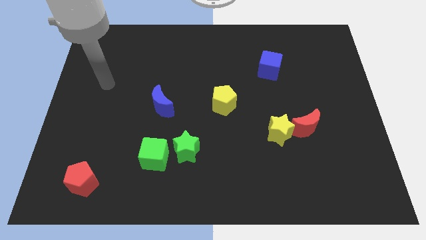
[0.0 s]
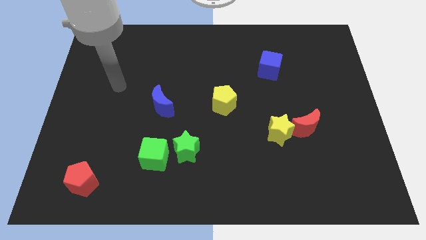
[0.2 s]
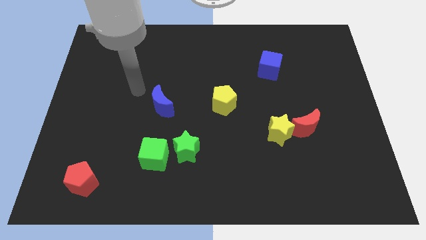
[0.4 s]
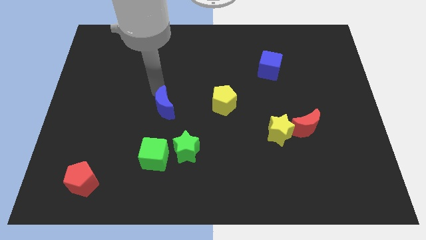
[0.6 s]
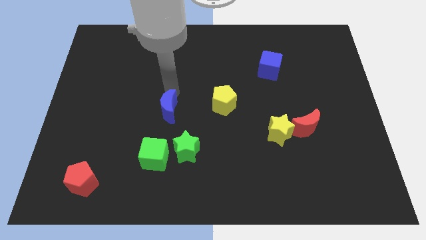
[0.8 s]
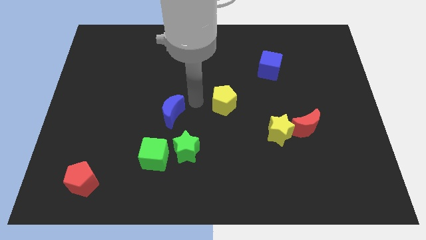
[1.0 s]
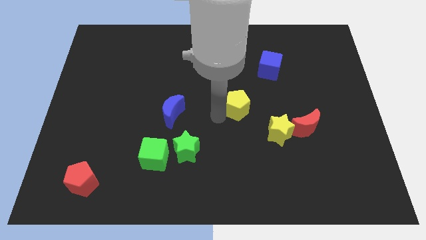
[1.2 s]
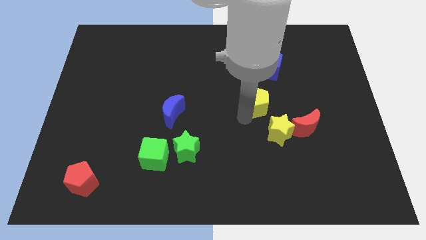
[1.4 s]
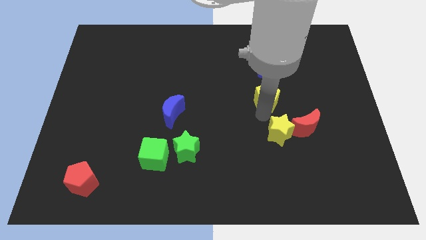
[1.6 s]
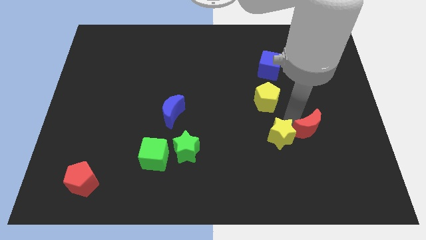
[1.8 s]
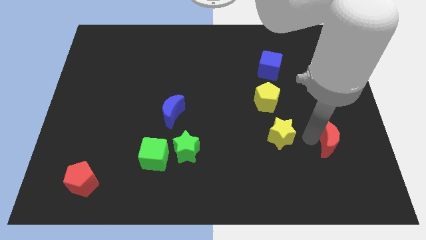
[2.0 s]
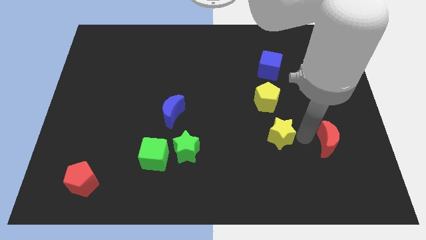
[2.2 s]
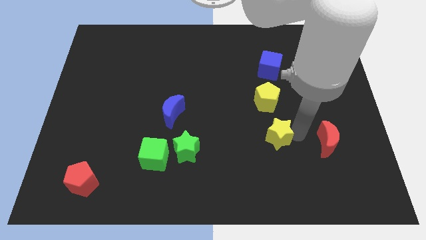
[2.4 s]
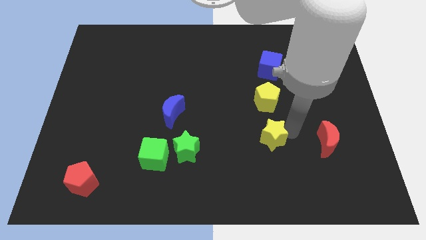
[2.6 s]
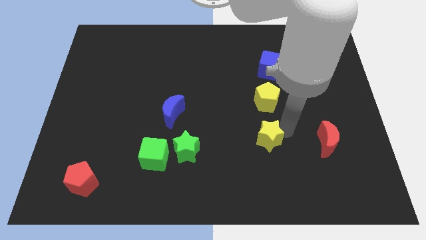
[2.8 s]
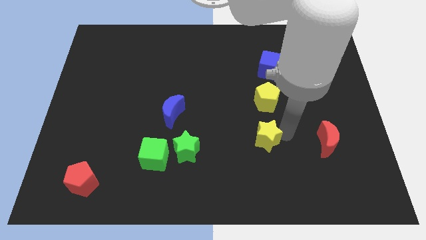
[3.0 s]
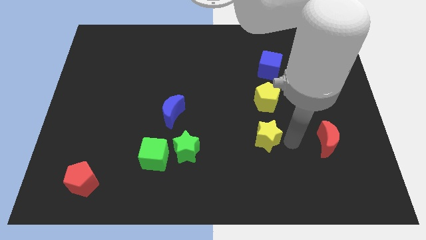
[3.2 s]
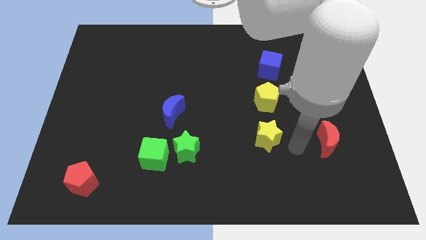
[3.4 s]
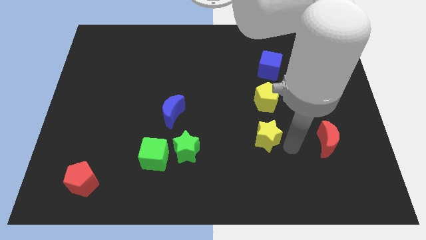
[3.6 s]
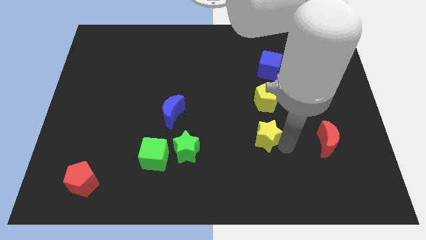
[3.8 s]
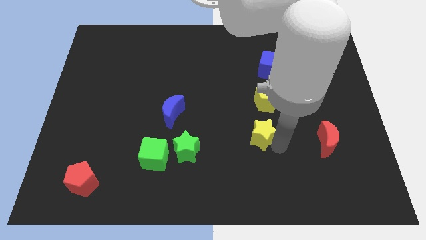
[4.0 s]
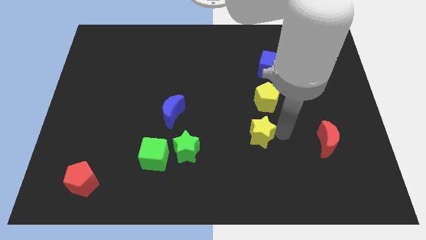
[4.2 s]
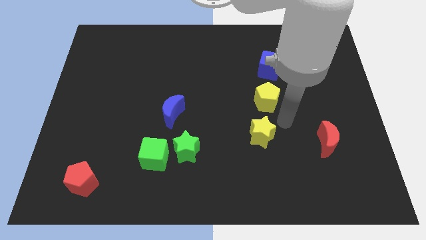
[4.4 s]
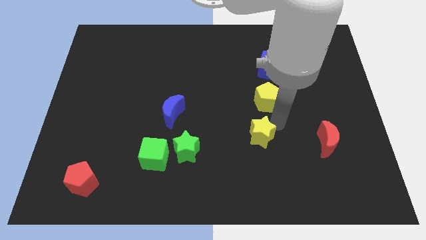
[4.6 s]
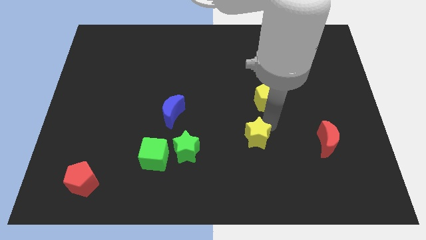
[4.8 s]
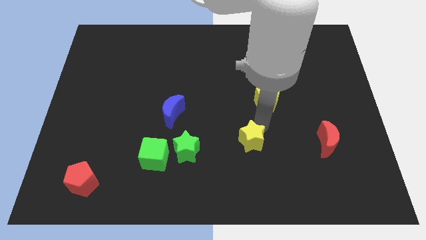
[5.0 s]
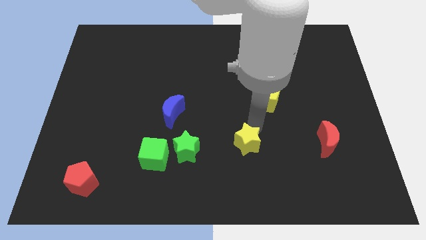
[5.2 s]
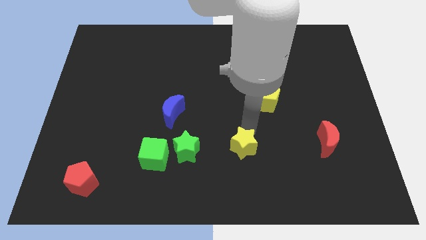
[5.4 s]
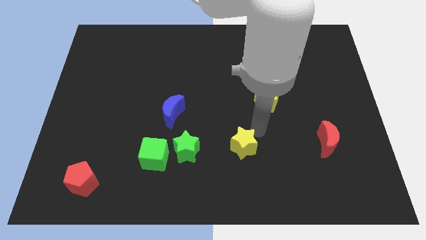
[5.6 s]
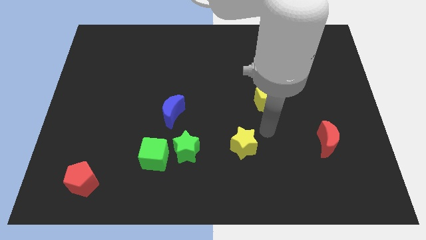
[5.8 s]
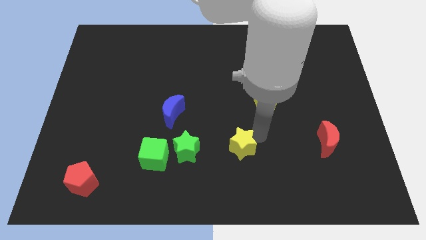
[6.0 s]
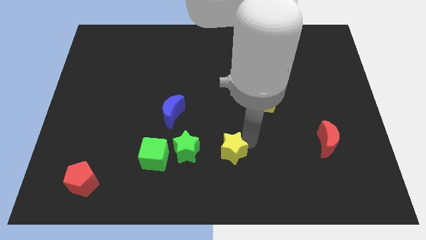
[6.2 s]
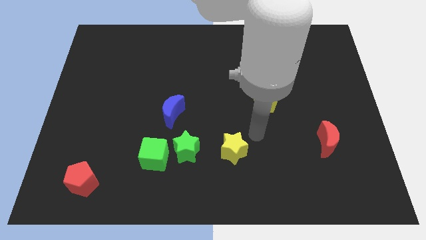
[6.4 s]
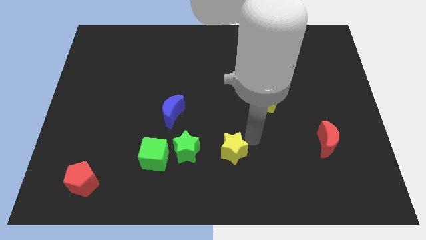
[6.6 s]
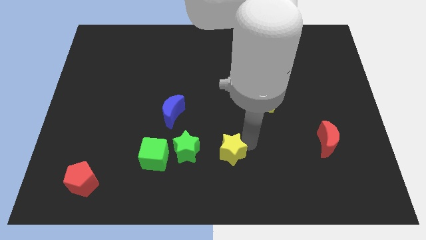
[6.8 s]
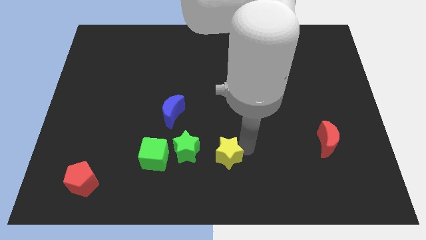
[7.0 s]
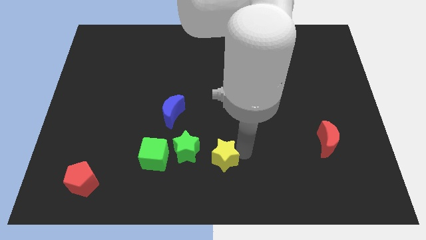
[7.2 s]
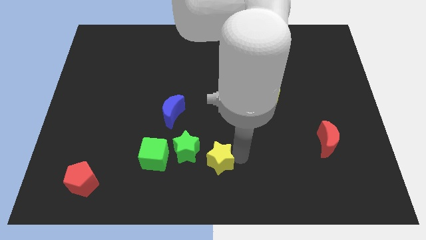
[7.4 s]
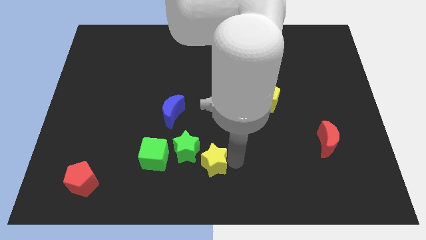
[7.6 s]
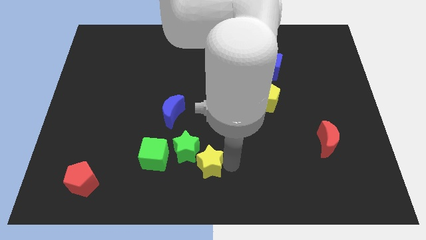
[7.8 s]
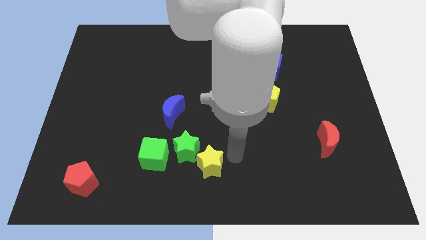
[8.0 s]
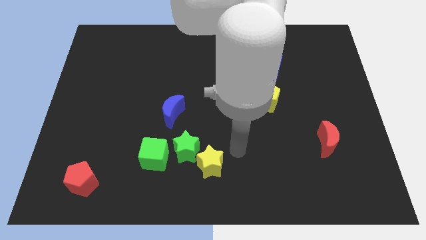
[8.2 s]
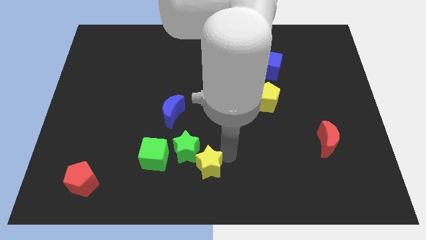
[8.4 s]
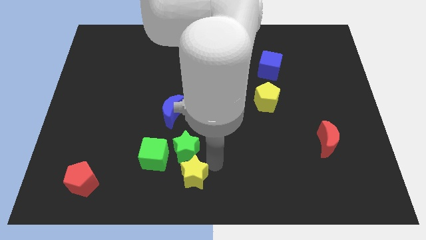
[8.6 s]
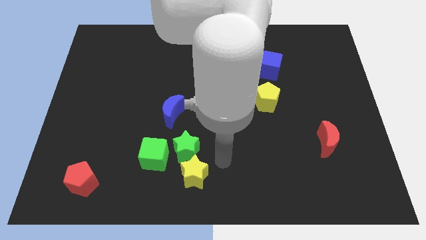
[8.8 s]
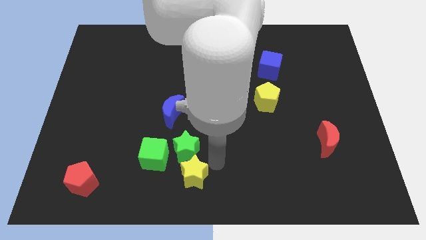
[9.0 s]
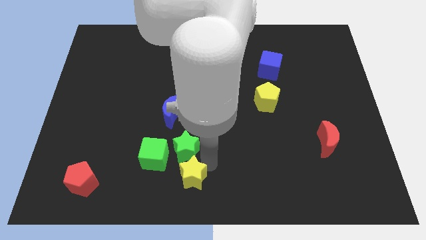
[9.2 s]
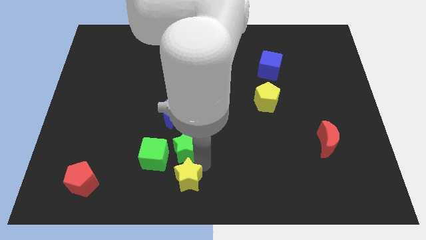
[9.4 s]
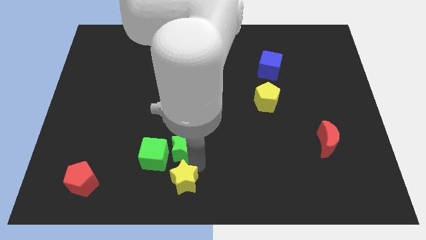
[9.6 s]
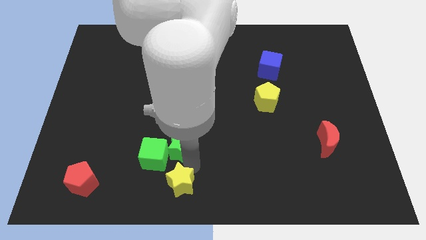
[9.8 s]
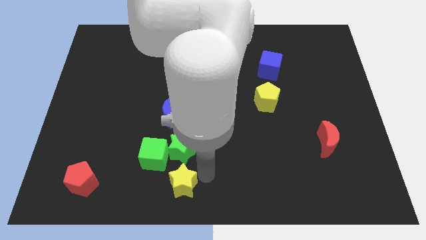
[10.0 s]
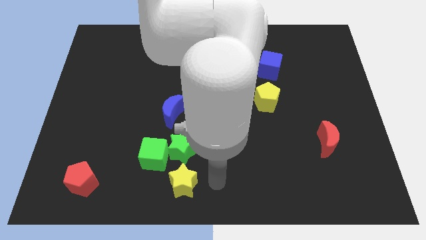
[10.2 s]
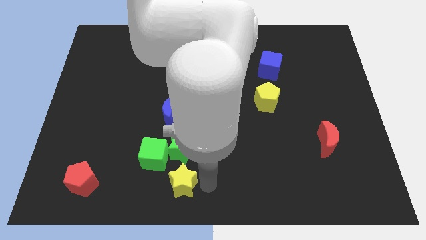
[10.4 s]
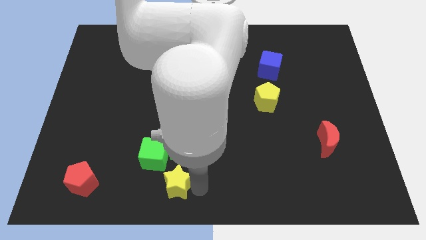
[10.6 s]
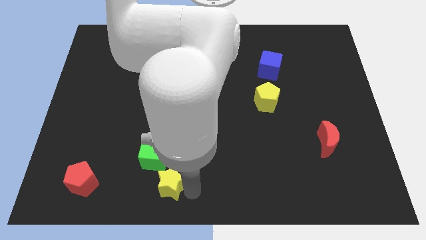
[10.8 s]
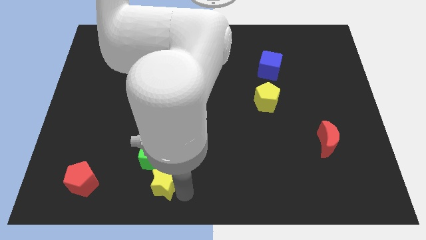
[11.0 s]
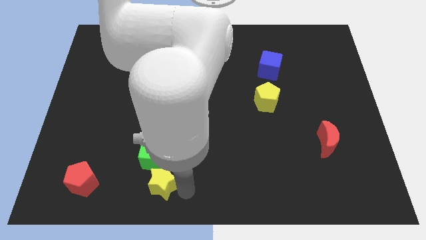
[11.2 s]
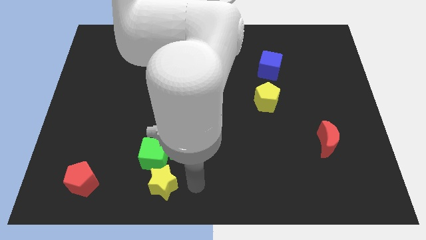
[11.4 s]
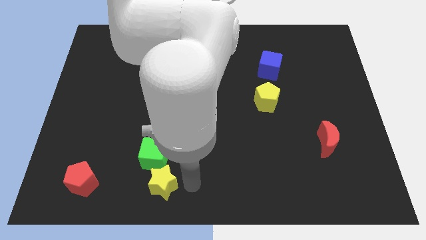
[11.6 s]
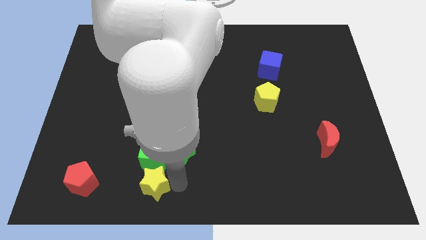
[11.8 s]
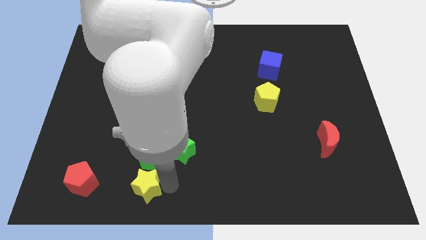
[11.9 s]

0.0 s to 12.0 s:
move the yellow star to the bottom left of the green cube
